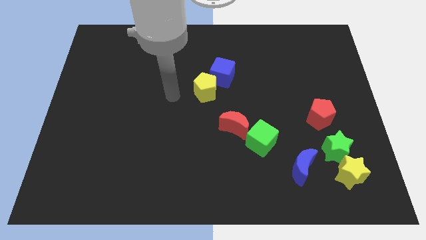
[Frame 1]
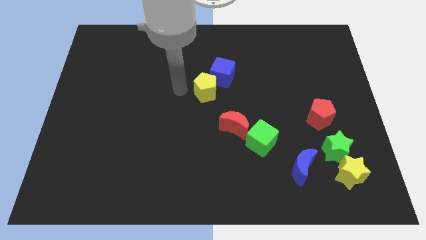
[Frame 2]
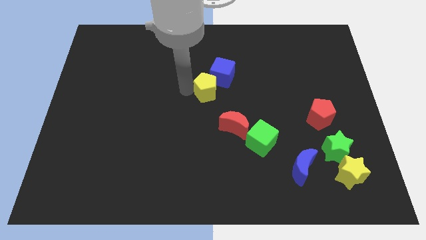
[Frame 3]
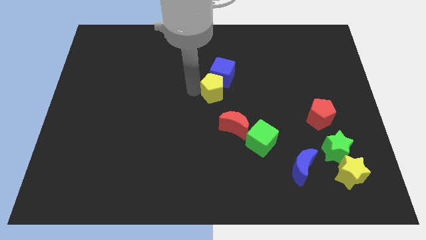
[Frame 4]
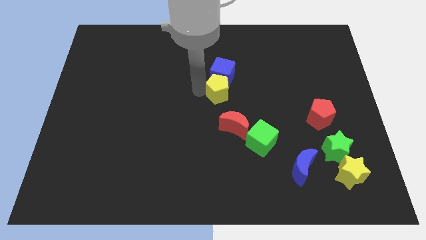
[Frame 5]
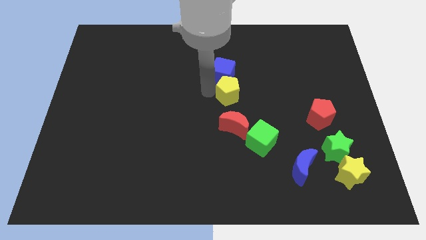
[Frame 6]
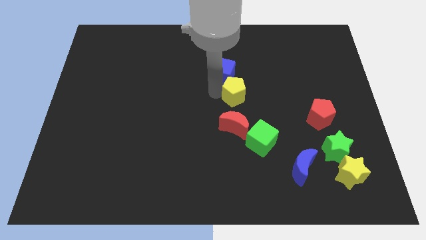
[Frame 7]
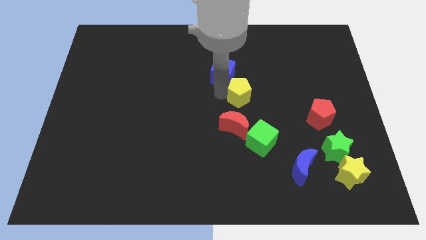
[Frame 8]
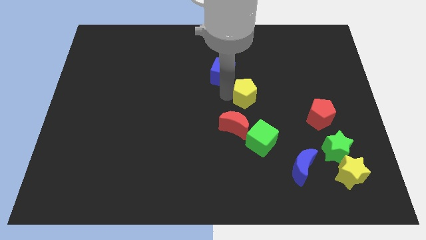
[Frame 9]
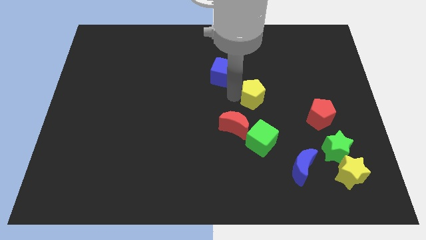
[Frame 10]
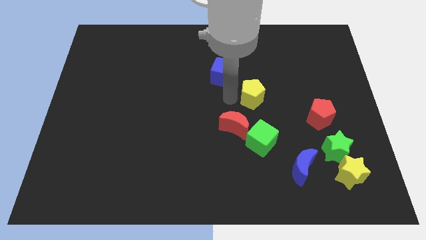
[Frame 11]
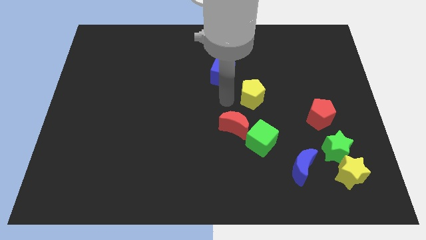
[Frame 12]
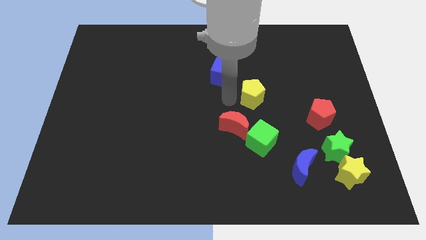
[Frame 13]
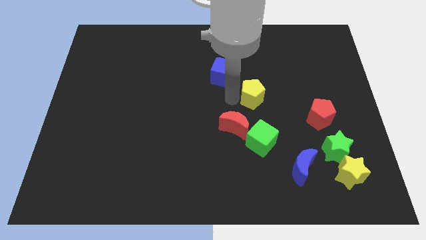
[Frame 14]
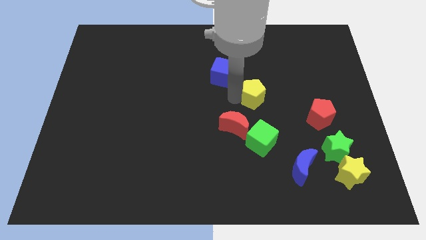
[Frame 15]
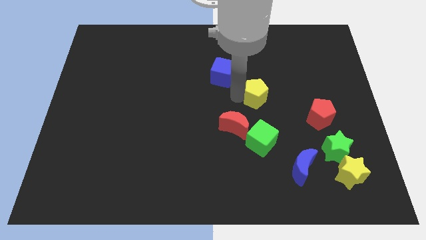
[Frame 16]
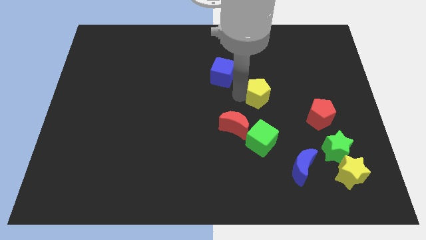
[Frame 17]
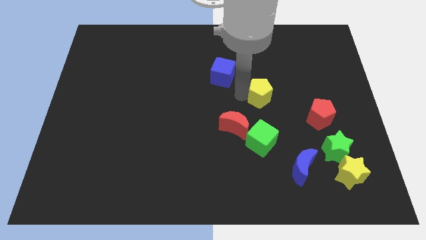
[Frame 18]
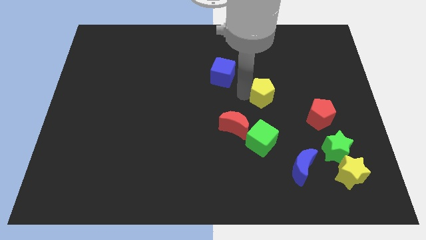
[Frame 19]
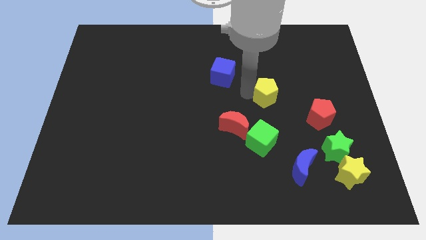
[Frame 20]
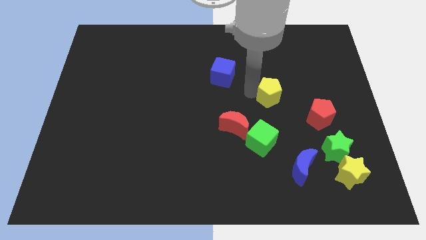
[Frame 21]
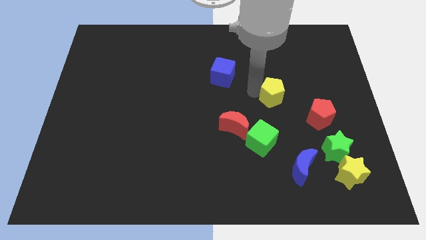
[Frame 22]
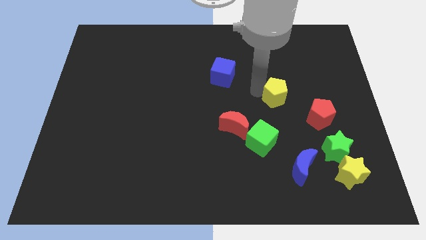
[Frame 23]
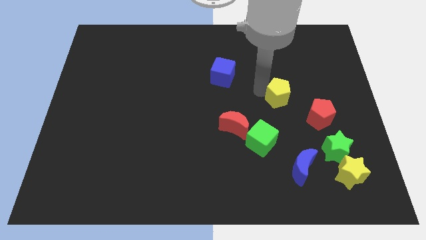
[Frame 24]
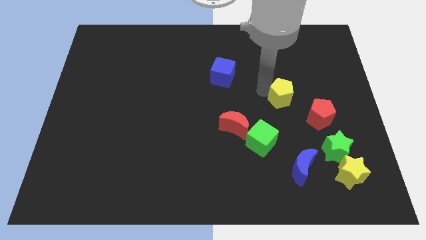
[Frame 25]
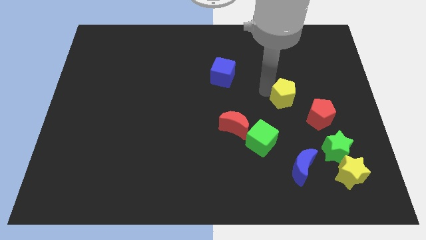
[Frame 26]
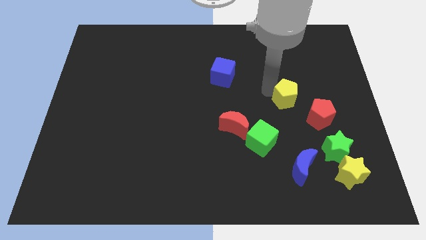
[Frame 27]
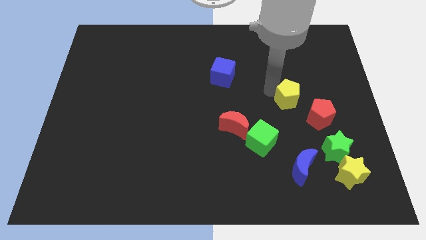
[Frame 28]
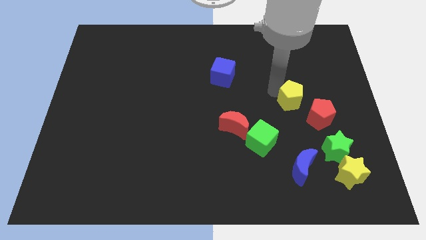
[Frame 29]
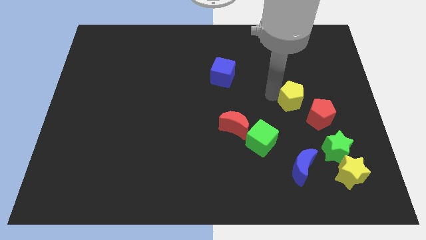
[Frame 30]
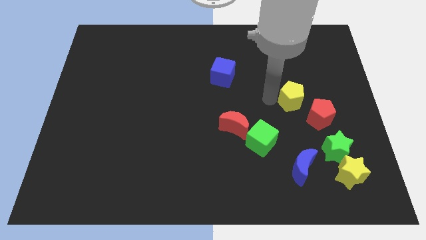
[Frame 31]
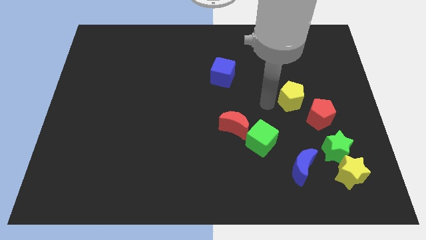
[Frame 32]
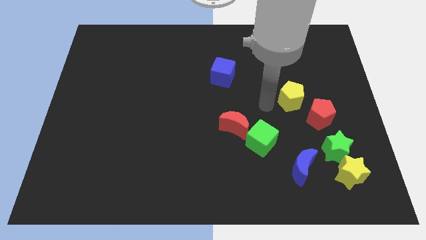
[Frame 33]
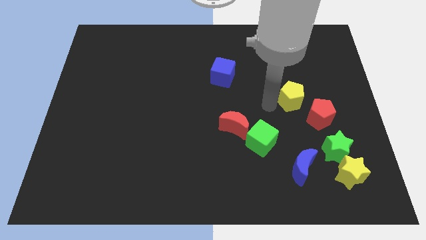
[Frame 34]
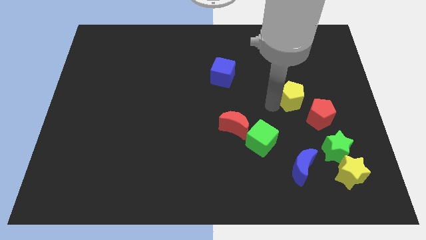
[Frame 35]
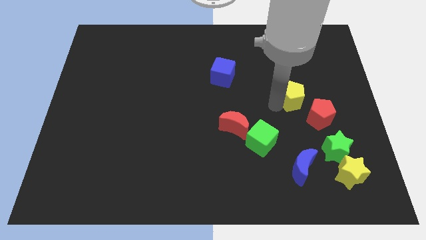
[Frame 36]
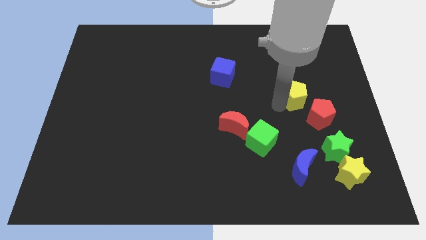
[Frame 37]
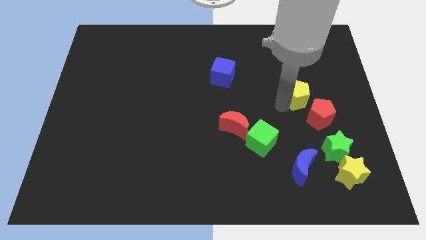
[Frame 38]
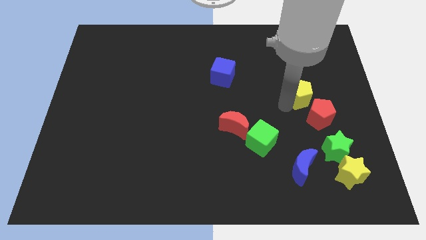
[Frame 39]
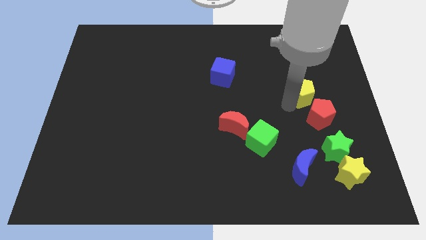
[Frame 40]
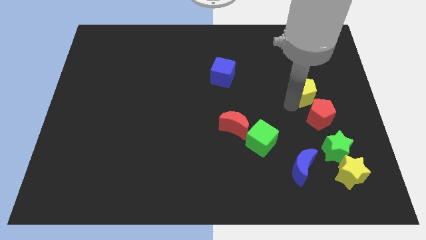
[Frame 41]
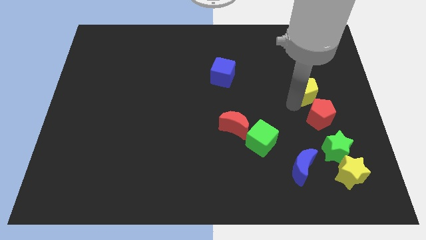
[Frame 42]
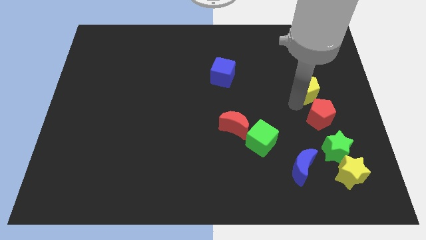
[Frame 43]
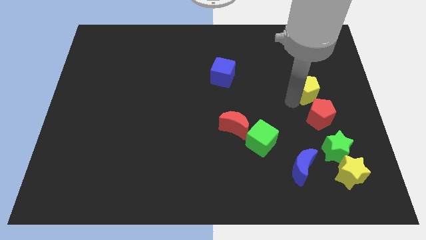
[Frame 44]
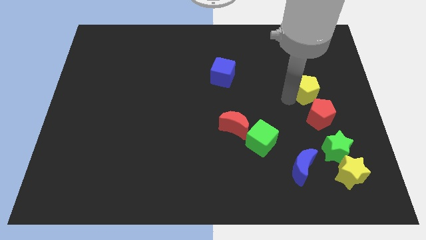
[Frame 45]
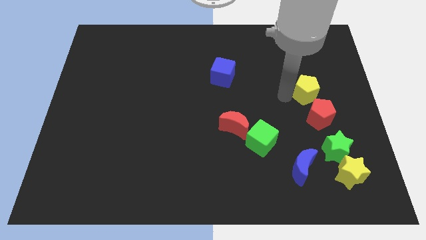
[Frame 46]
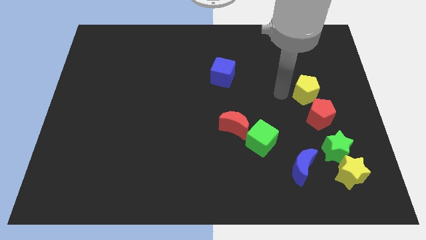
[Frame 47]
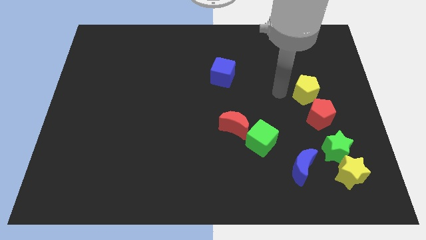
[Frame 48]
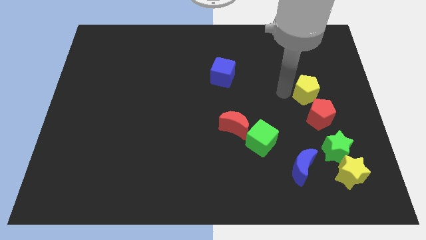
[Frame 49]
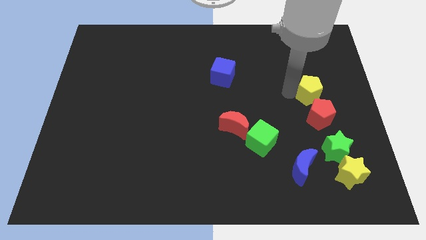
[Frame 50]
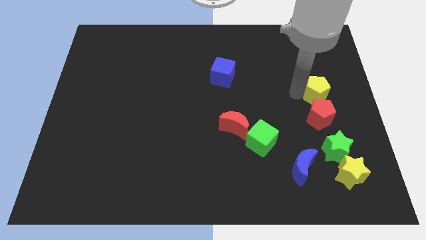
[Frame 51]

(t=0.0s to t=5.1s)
push the yellow pentagon to the center right

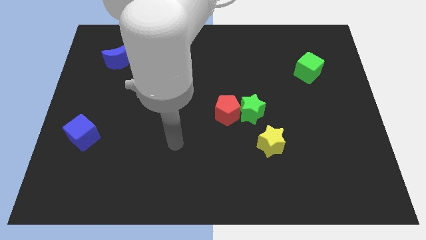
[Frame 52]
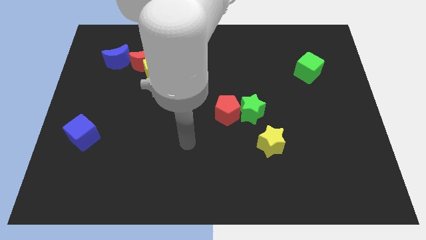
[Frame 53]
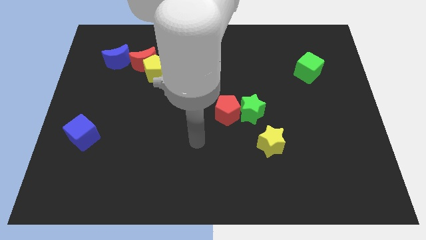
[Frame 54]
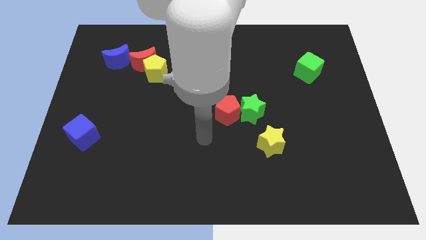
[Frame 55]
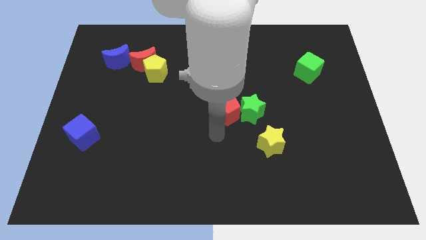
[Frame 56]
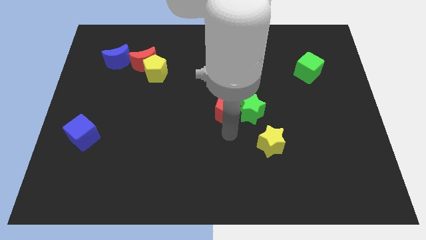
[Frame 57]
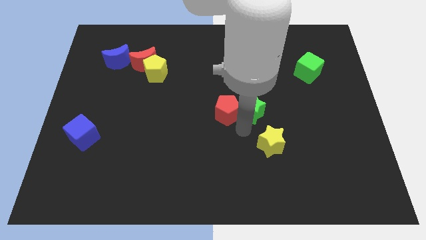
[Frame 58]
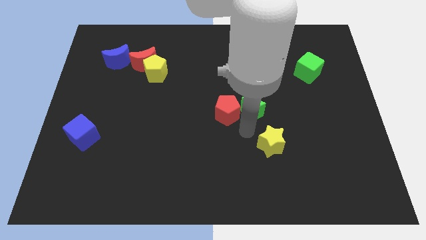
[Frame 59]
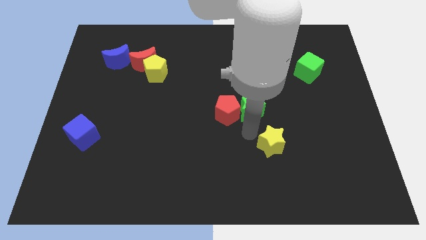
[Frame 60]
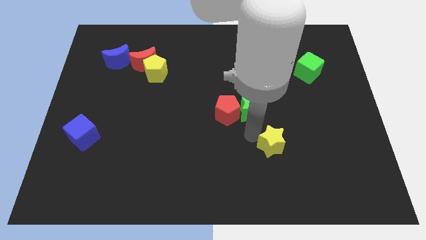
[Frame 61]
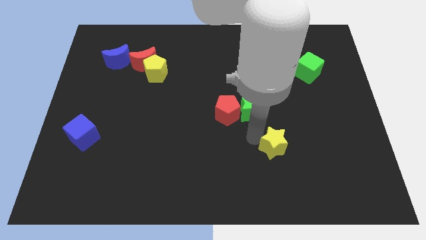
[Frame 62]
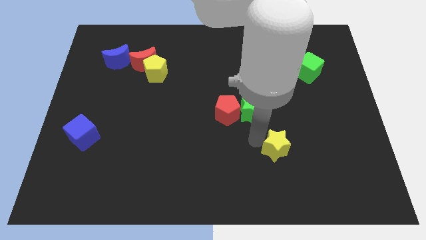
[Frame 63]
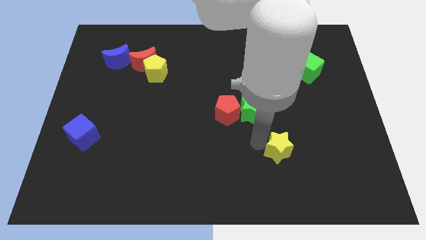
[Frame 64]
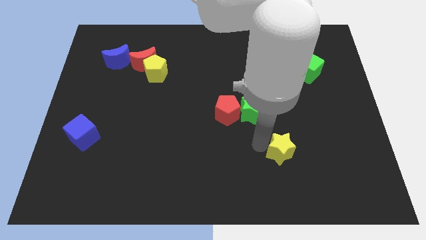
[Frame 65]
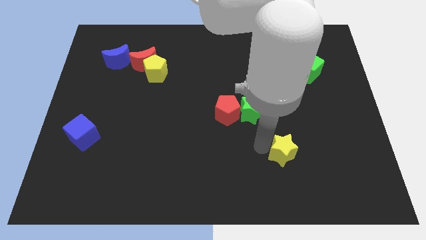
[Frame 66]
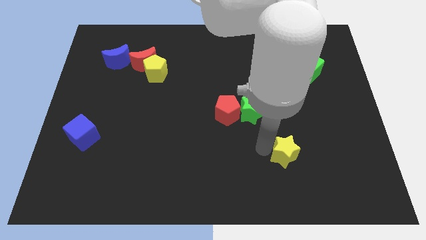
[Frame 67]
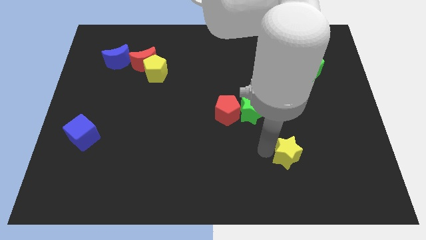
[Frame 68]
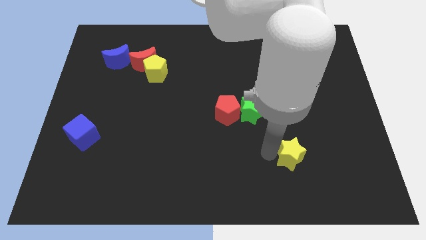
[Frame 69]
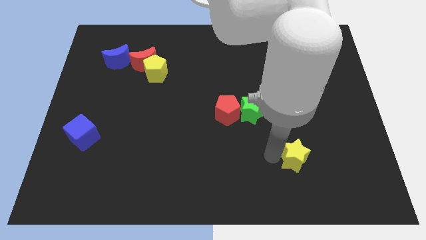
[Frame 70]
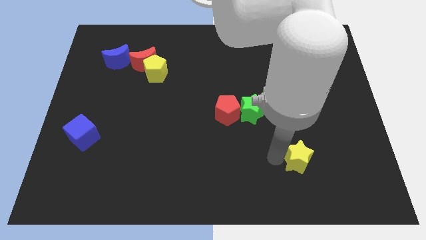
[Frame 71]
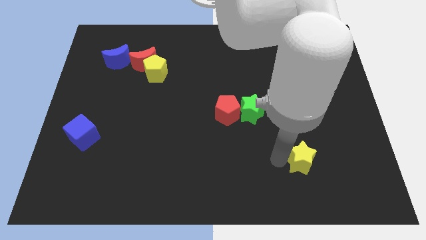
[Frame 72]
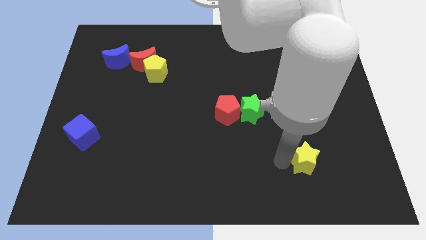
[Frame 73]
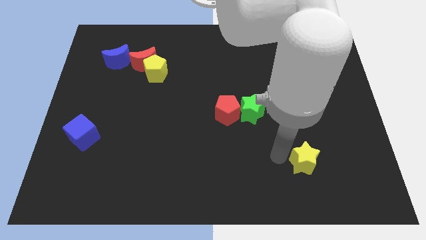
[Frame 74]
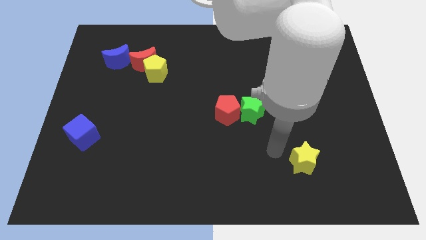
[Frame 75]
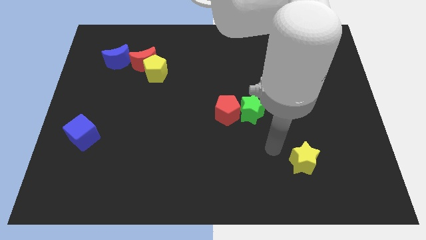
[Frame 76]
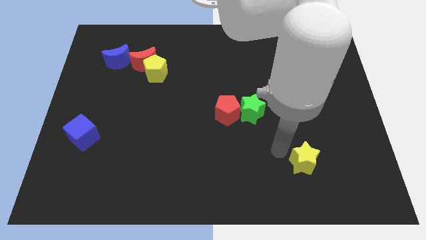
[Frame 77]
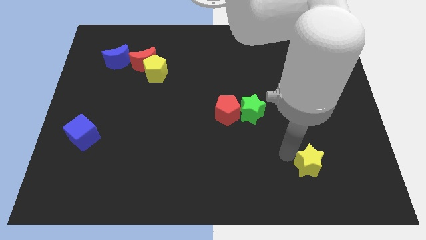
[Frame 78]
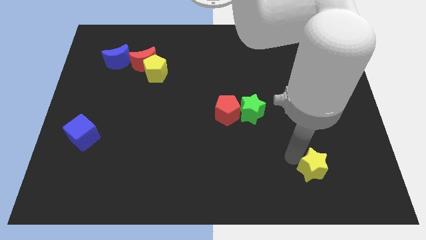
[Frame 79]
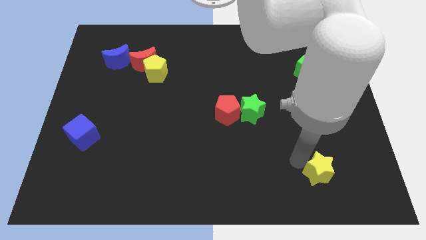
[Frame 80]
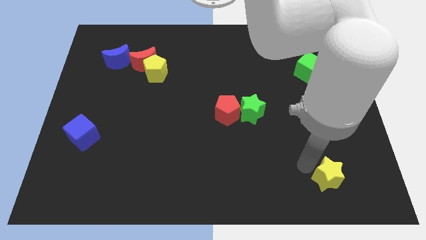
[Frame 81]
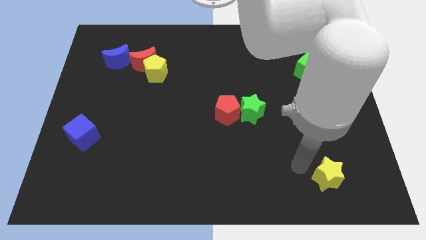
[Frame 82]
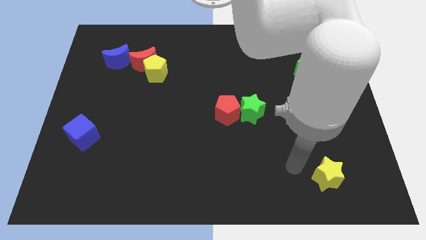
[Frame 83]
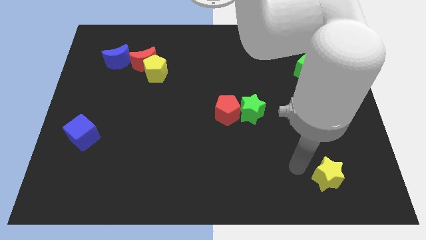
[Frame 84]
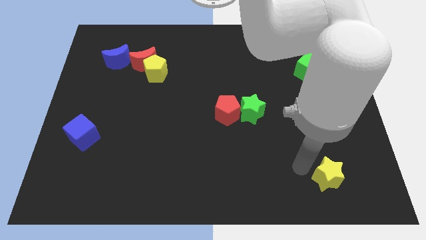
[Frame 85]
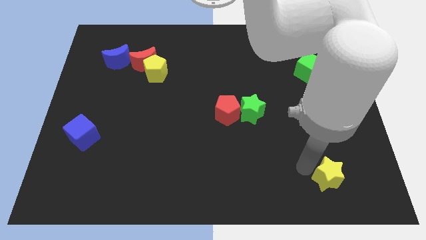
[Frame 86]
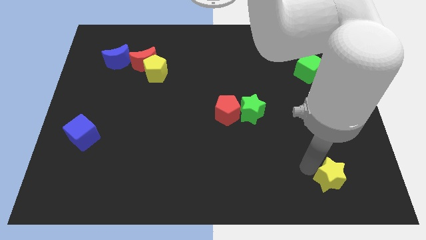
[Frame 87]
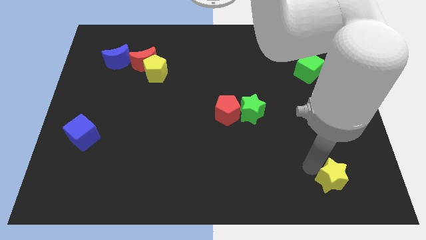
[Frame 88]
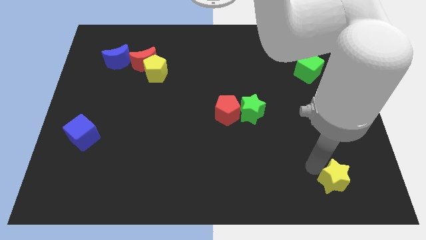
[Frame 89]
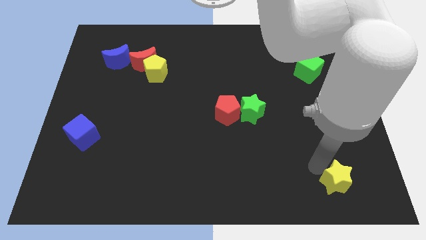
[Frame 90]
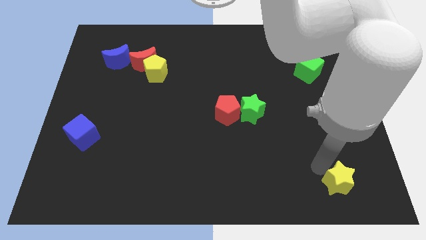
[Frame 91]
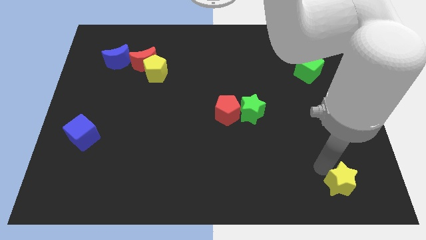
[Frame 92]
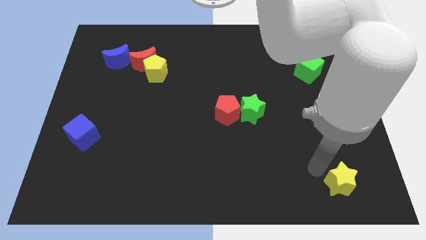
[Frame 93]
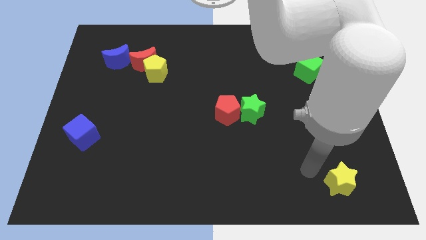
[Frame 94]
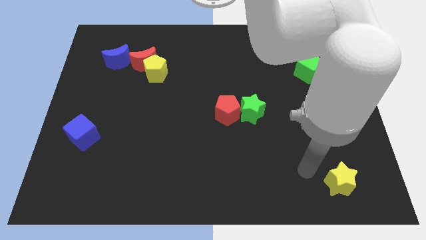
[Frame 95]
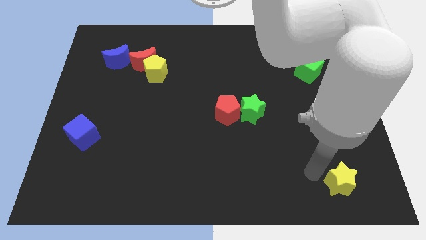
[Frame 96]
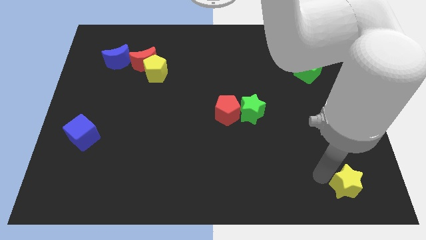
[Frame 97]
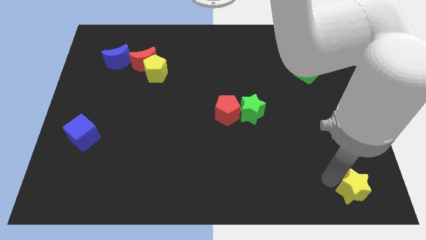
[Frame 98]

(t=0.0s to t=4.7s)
slide the yellow star to the bottom right corner
